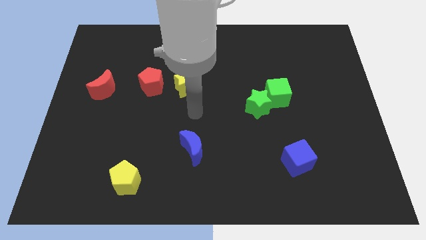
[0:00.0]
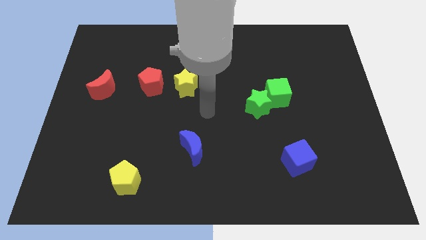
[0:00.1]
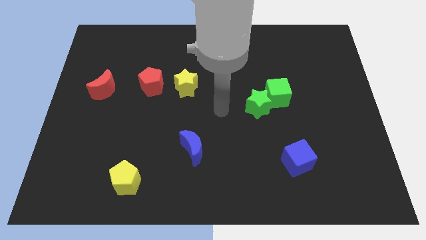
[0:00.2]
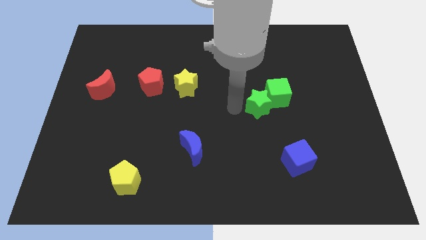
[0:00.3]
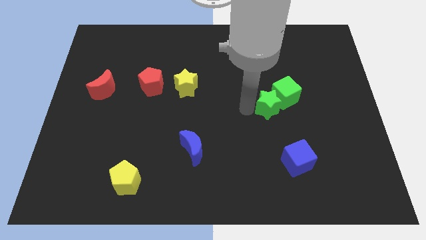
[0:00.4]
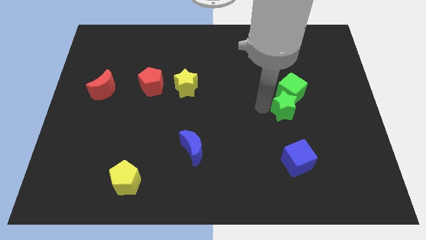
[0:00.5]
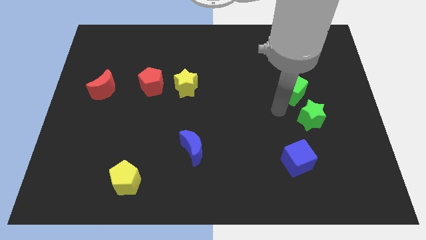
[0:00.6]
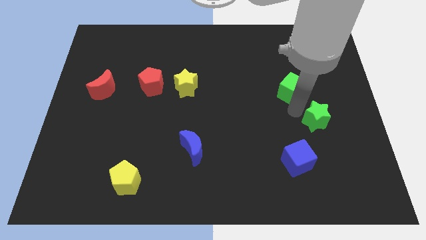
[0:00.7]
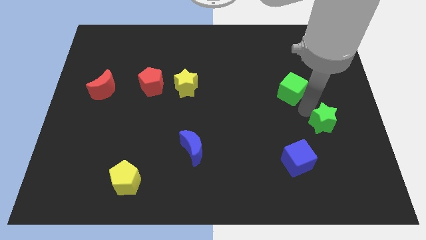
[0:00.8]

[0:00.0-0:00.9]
move the green cube away from the green star

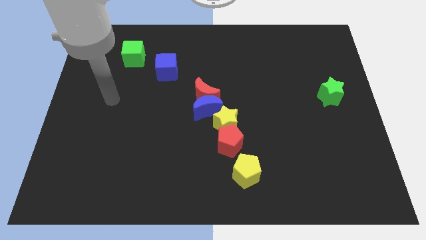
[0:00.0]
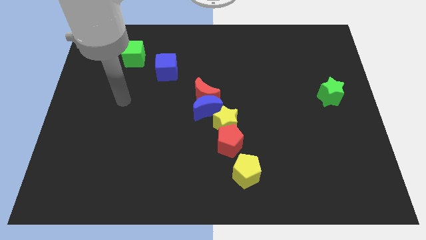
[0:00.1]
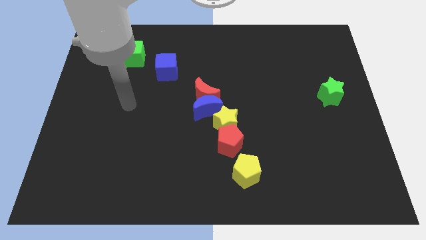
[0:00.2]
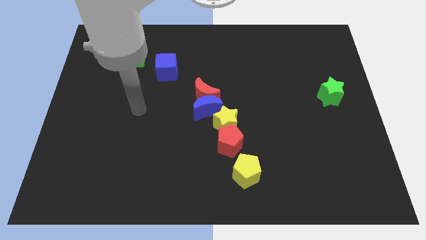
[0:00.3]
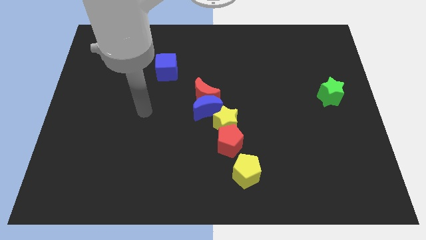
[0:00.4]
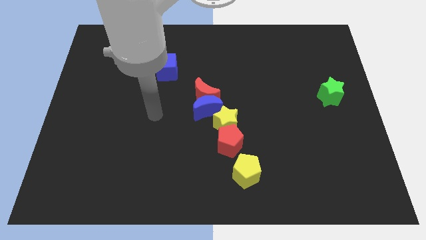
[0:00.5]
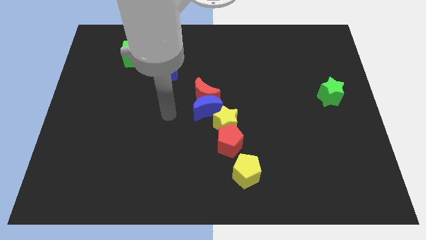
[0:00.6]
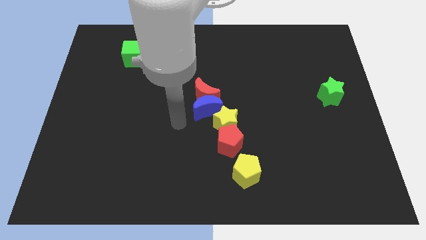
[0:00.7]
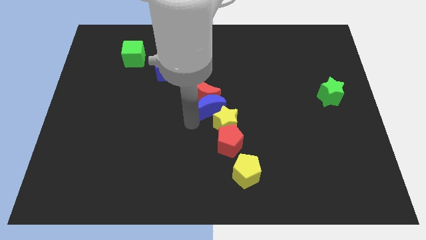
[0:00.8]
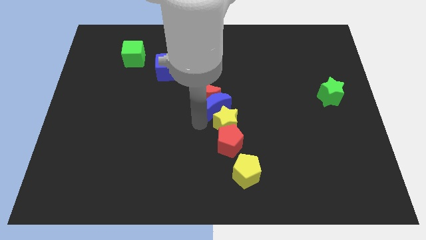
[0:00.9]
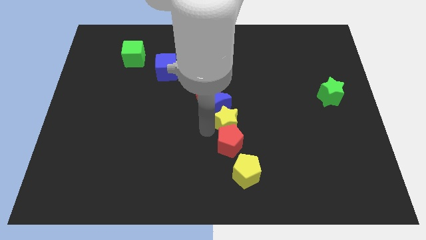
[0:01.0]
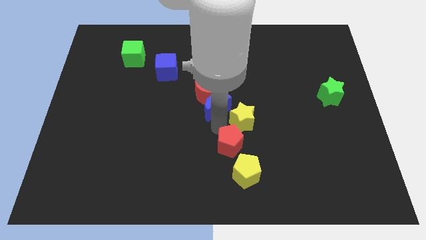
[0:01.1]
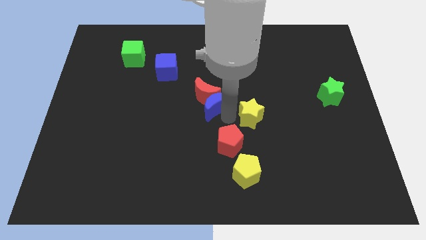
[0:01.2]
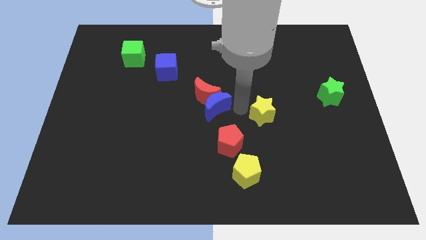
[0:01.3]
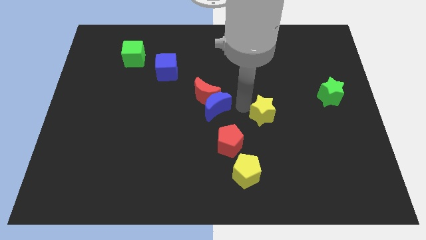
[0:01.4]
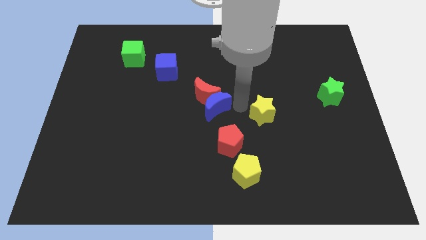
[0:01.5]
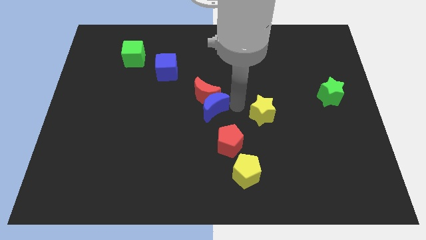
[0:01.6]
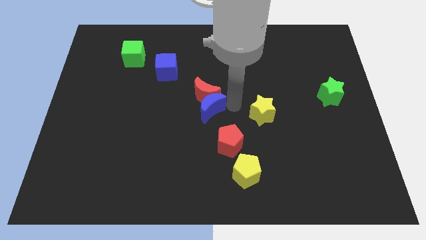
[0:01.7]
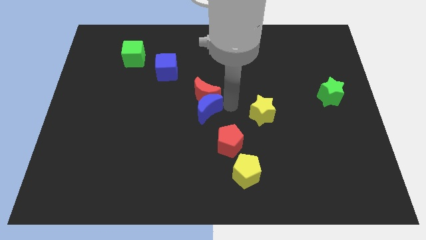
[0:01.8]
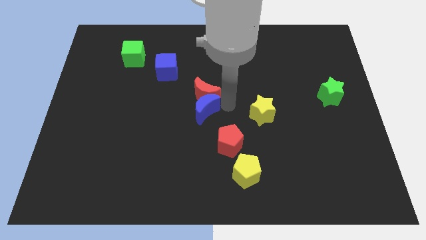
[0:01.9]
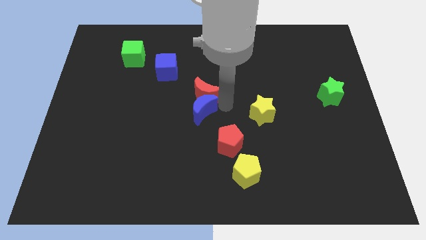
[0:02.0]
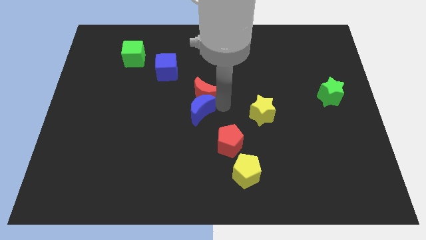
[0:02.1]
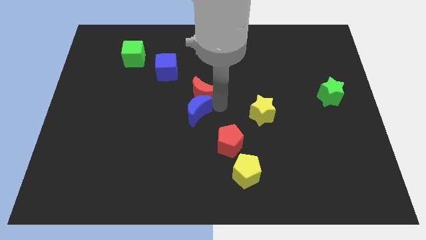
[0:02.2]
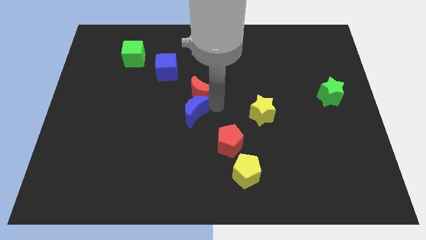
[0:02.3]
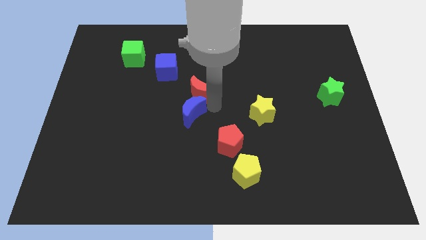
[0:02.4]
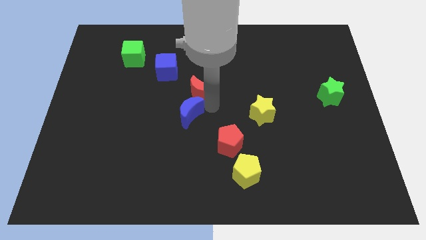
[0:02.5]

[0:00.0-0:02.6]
move the blue moon away from the red moon and yellow star

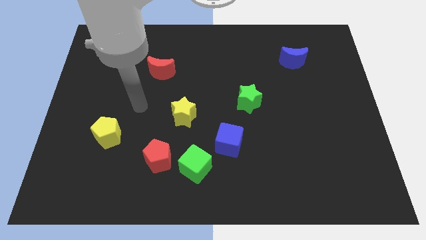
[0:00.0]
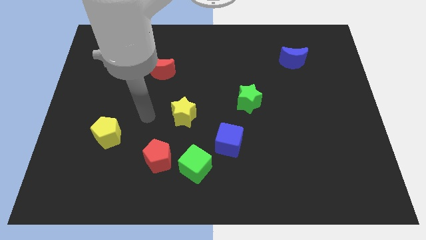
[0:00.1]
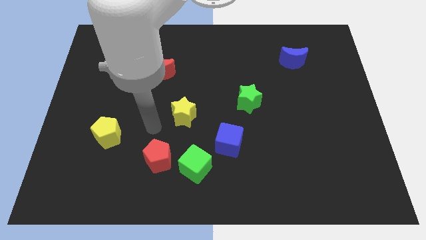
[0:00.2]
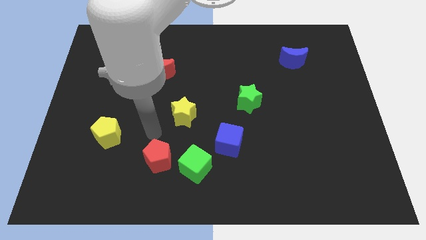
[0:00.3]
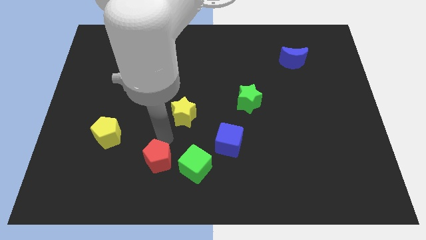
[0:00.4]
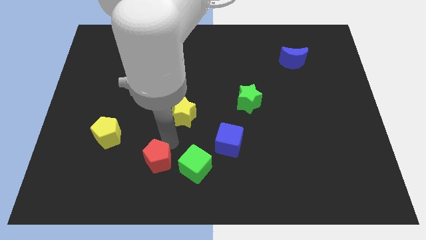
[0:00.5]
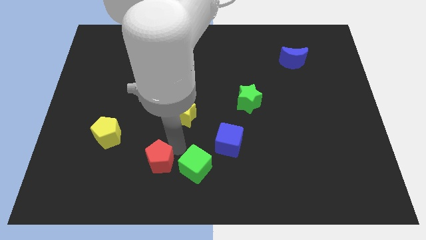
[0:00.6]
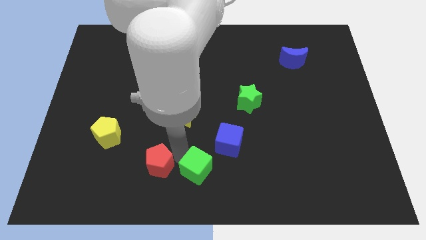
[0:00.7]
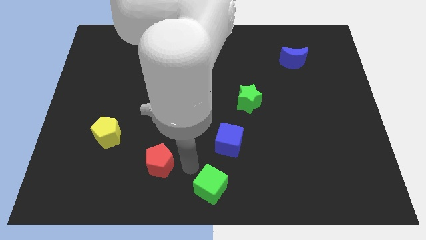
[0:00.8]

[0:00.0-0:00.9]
move the red pentagon away from the green cube

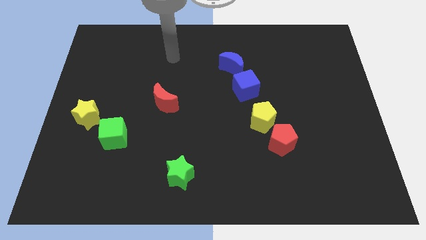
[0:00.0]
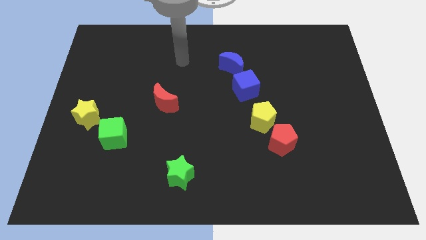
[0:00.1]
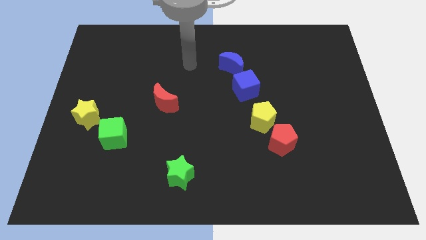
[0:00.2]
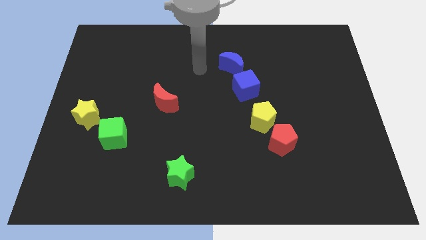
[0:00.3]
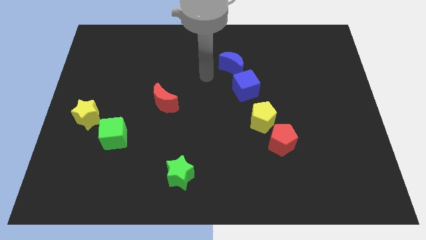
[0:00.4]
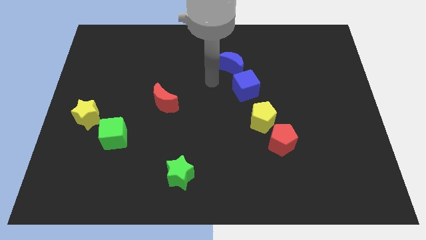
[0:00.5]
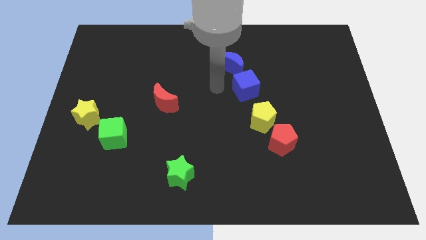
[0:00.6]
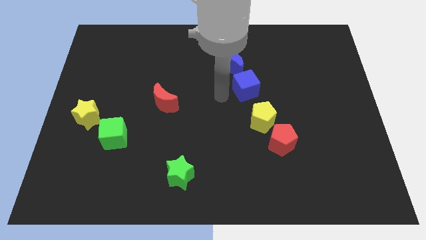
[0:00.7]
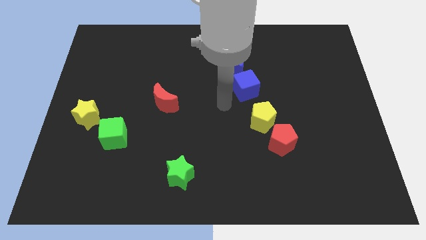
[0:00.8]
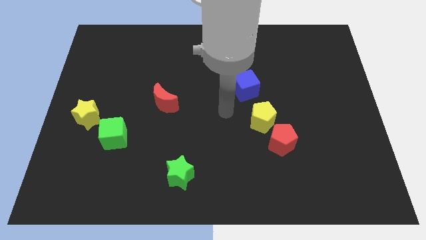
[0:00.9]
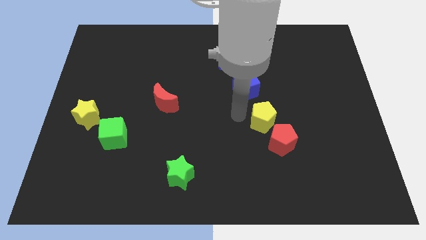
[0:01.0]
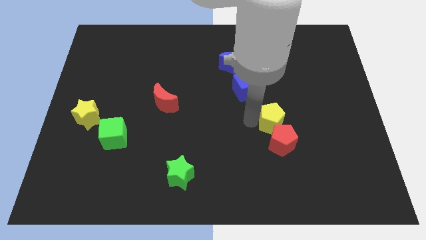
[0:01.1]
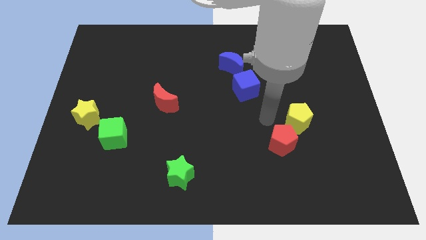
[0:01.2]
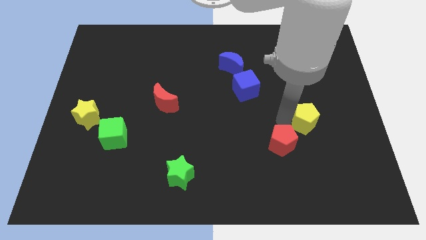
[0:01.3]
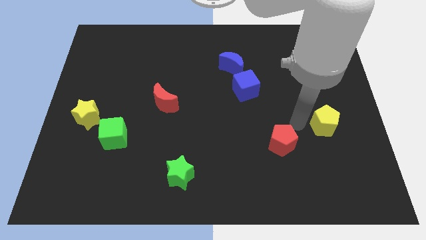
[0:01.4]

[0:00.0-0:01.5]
pull the red pentagon apart from the yellow pentagon

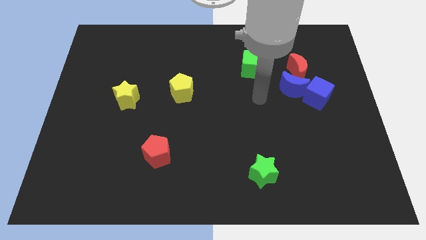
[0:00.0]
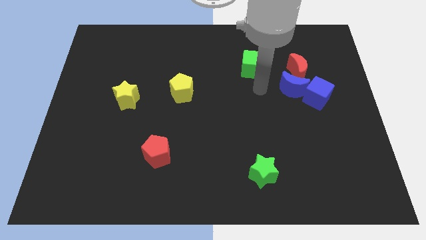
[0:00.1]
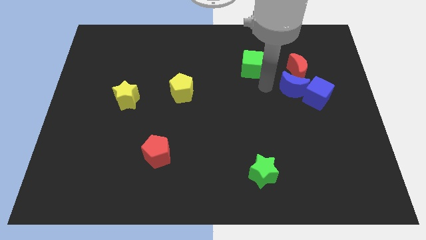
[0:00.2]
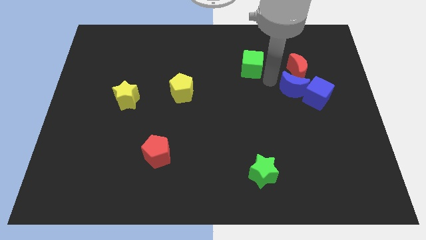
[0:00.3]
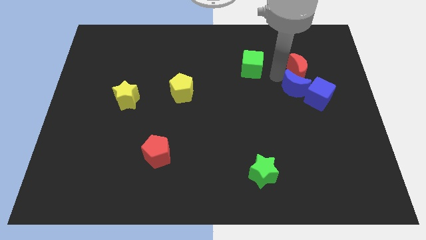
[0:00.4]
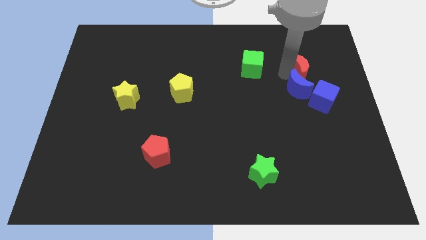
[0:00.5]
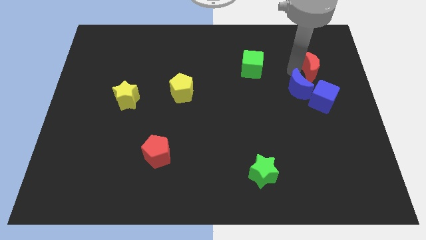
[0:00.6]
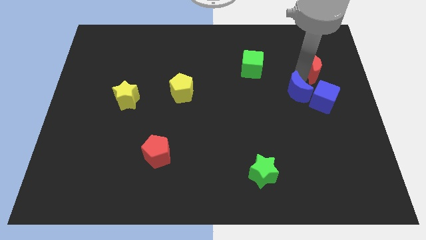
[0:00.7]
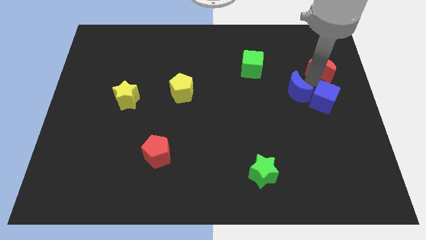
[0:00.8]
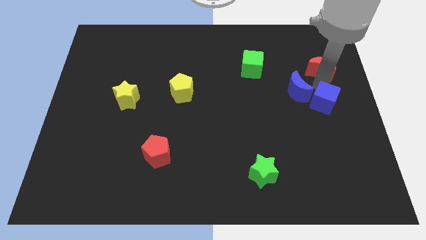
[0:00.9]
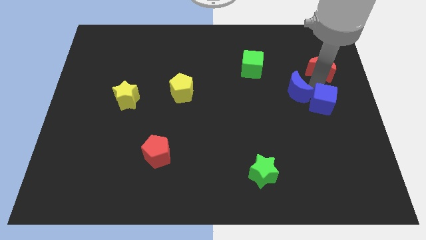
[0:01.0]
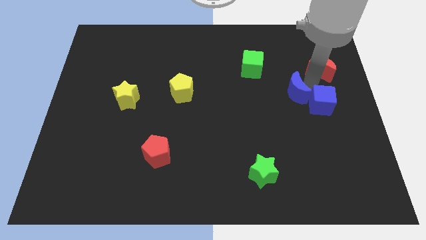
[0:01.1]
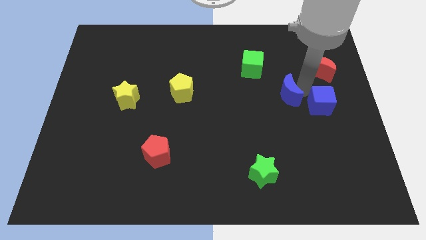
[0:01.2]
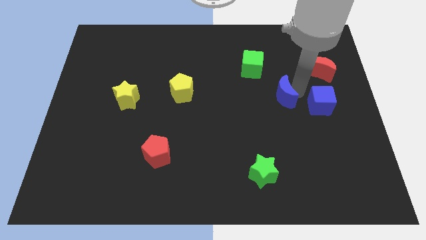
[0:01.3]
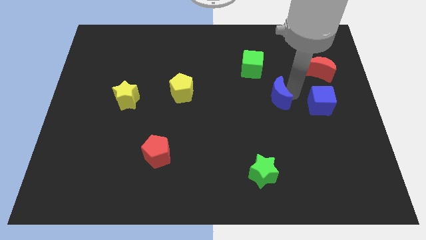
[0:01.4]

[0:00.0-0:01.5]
pull the blue moon apart from the blue cube and red moon

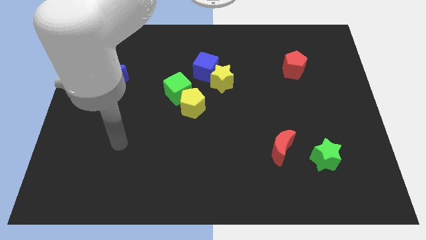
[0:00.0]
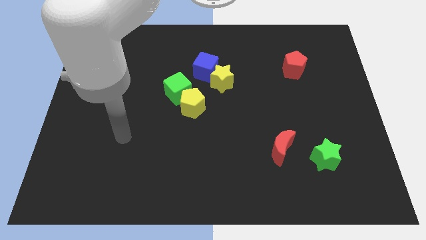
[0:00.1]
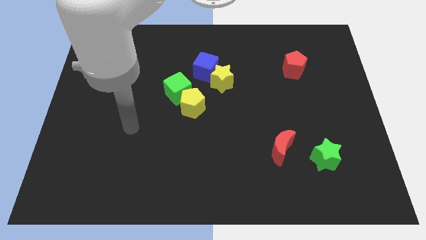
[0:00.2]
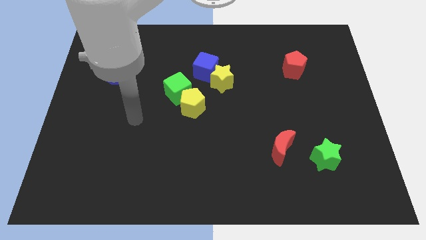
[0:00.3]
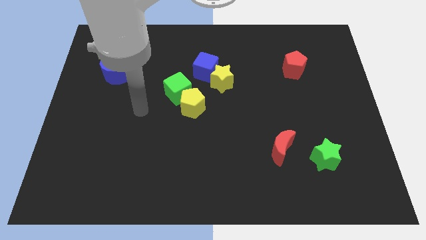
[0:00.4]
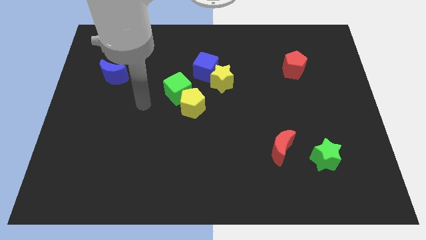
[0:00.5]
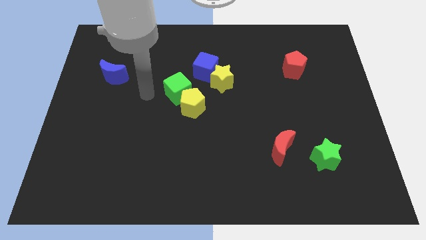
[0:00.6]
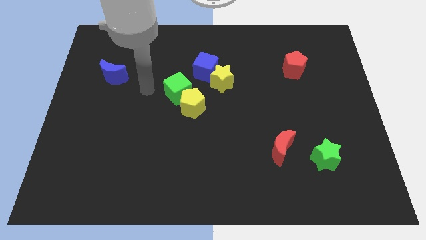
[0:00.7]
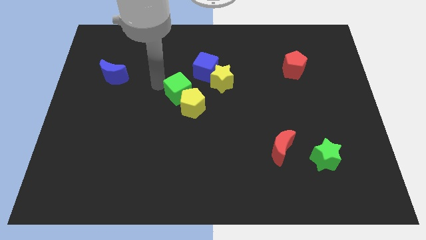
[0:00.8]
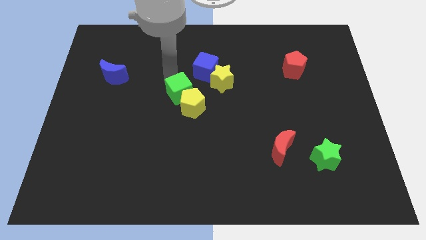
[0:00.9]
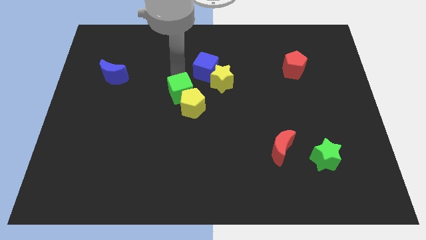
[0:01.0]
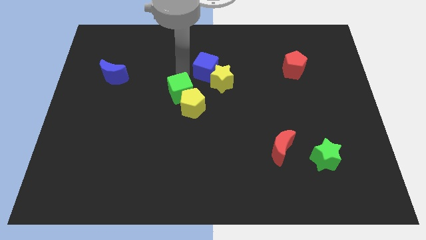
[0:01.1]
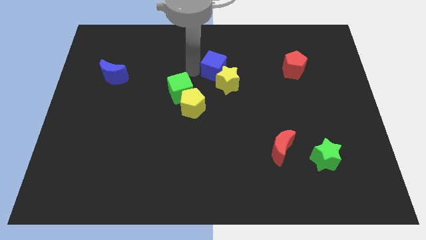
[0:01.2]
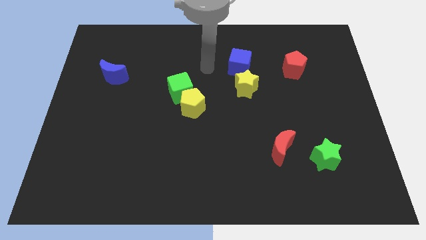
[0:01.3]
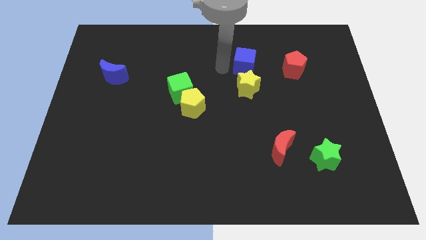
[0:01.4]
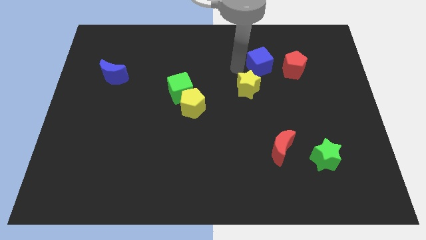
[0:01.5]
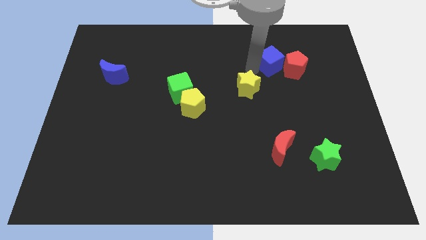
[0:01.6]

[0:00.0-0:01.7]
move the yellow star away from the blue cube

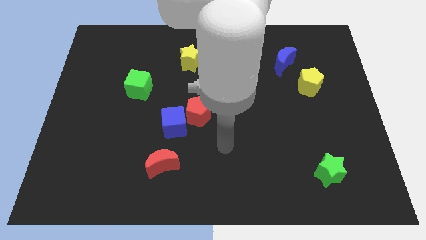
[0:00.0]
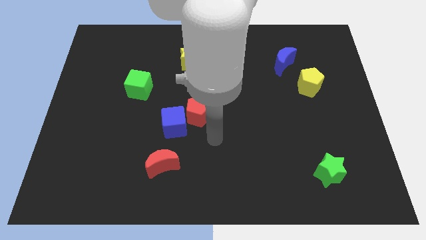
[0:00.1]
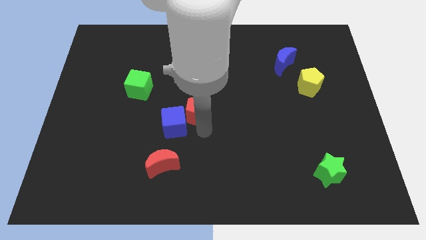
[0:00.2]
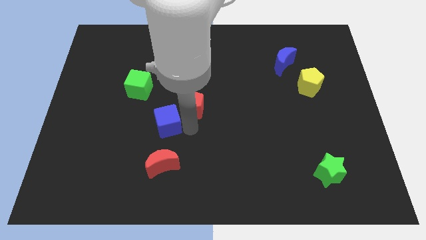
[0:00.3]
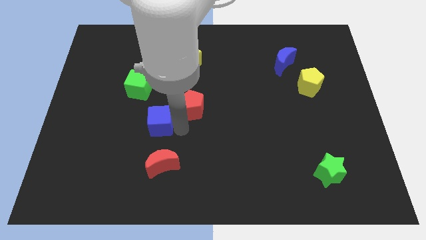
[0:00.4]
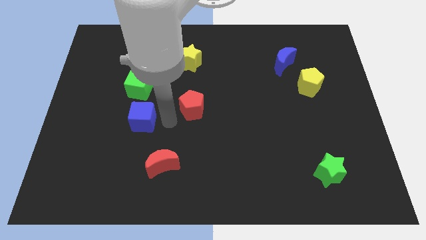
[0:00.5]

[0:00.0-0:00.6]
separate the red pentagon from the blue cube
